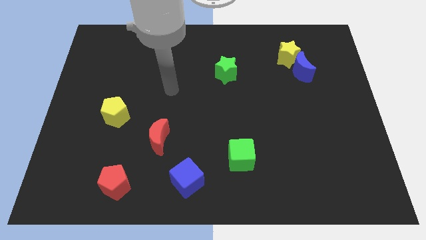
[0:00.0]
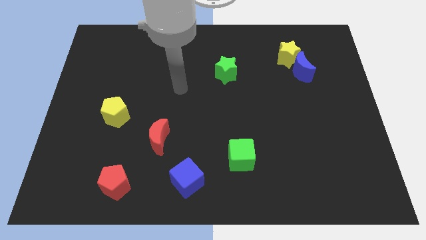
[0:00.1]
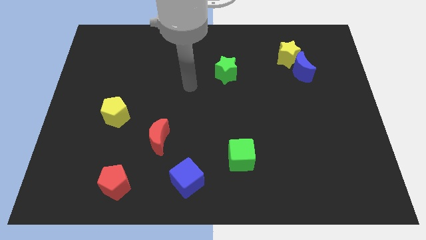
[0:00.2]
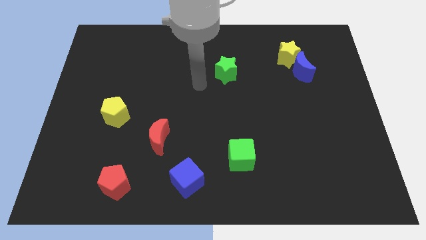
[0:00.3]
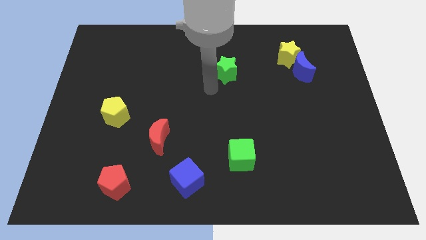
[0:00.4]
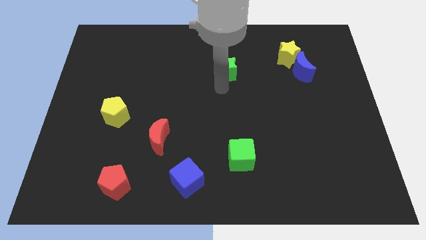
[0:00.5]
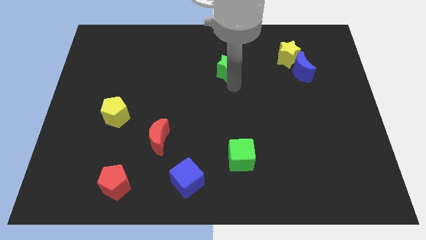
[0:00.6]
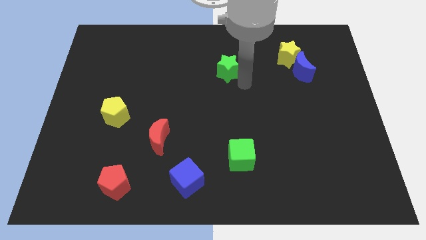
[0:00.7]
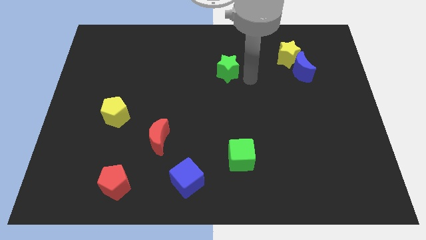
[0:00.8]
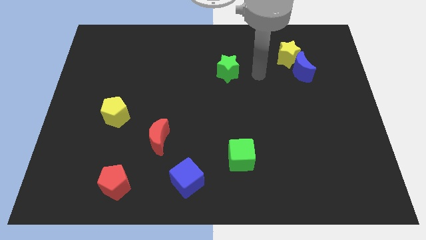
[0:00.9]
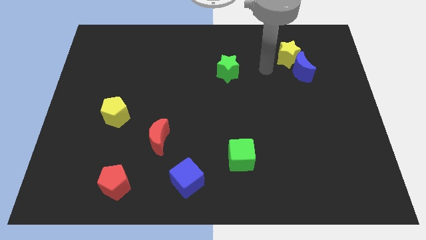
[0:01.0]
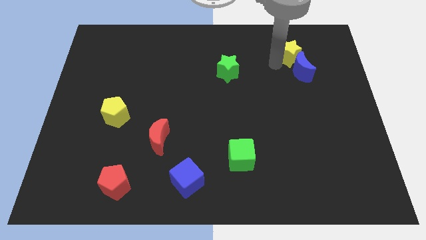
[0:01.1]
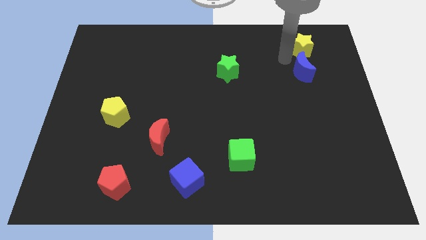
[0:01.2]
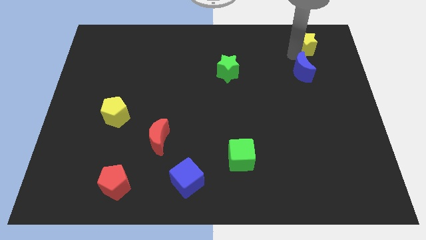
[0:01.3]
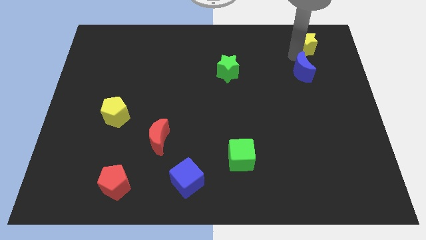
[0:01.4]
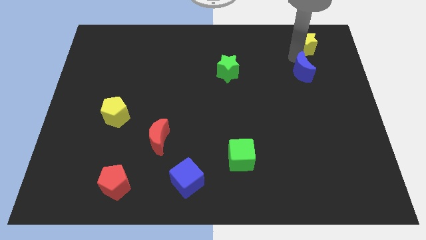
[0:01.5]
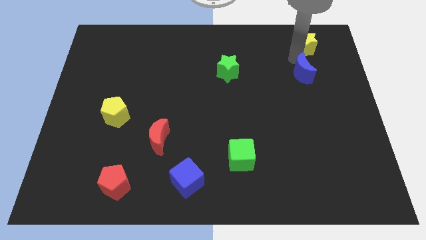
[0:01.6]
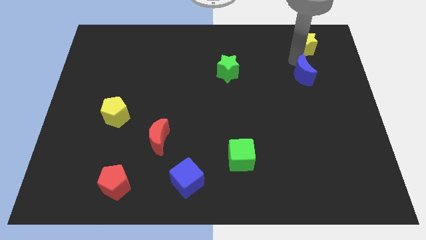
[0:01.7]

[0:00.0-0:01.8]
separate the blue moon from the yellow star

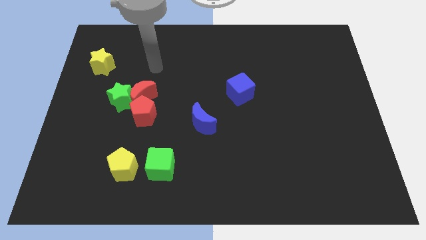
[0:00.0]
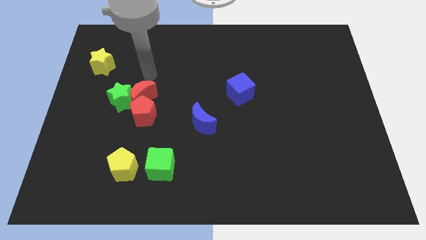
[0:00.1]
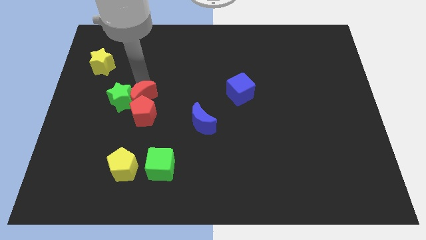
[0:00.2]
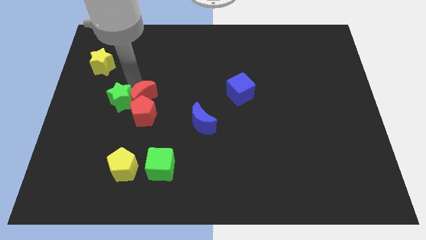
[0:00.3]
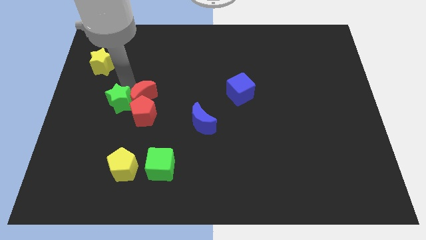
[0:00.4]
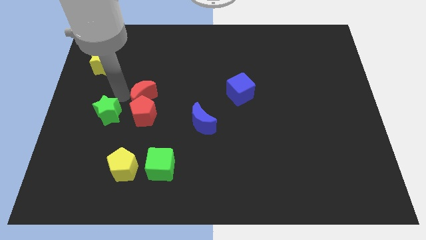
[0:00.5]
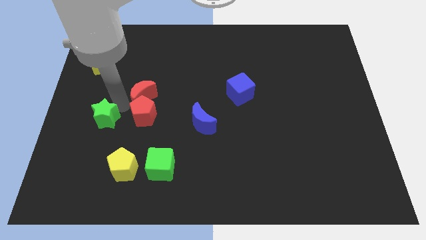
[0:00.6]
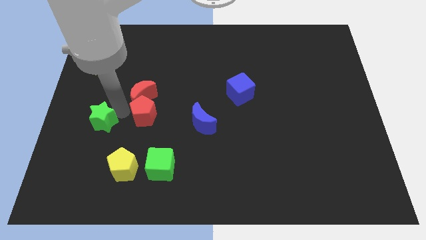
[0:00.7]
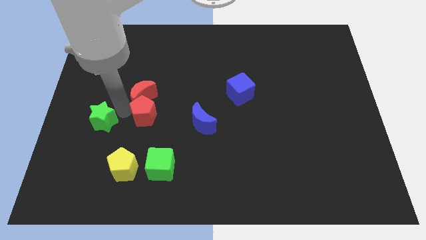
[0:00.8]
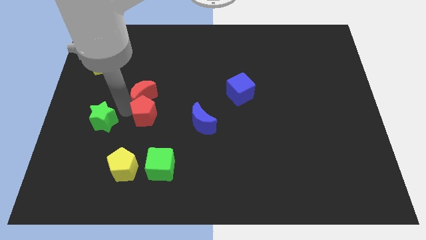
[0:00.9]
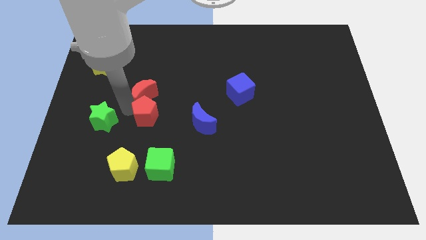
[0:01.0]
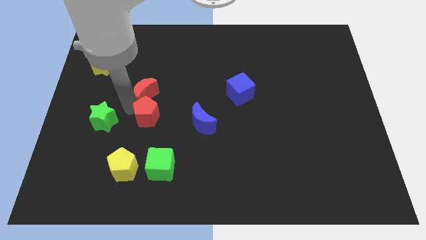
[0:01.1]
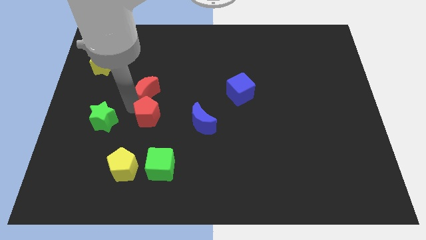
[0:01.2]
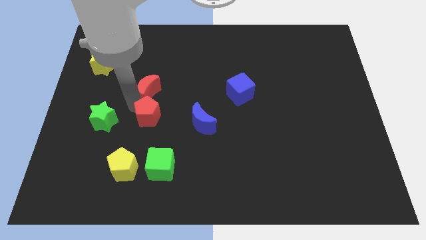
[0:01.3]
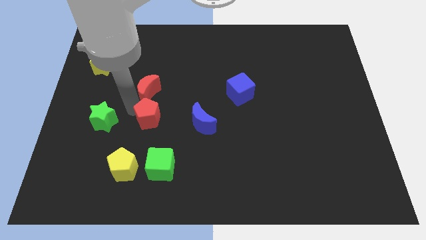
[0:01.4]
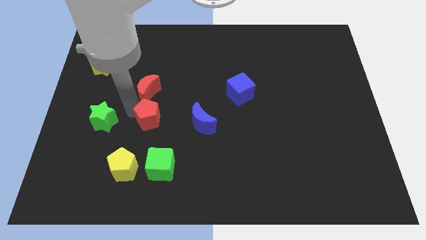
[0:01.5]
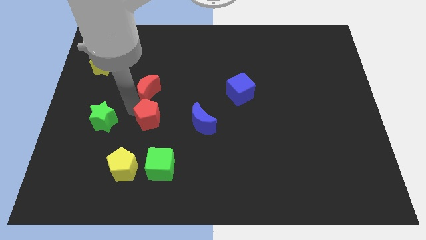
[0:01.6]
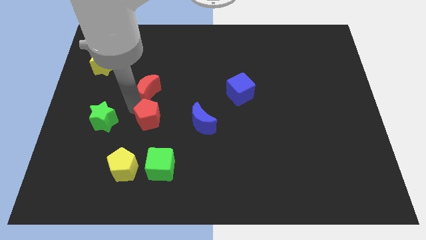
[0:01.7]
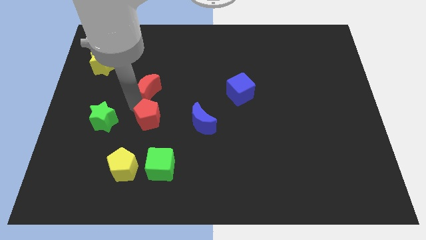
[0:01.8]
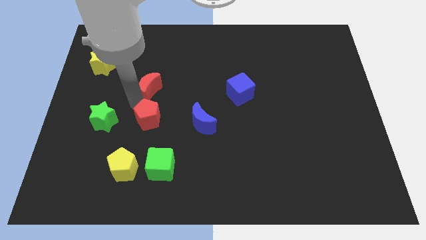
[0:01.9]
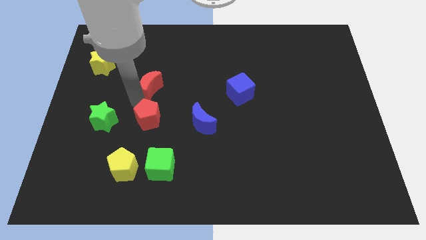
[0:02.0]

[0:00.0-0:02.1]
move the red moon away from the green star and red pentagon

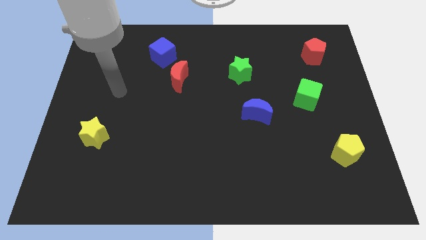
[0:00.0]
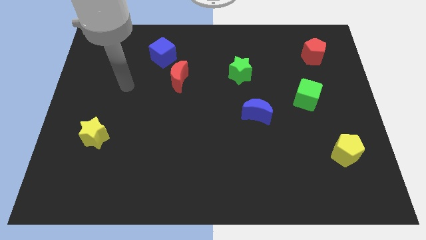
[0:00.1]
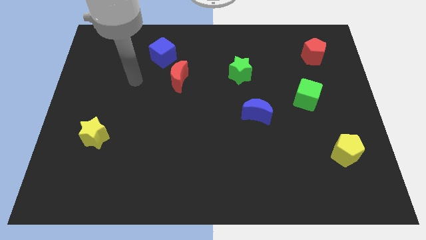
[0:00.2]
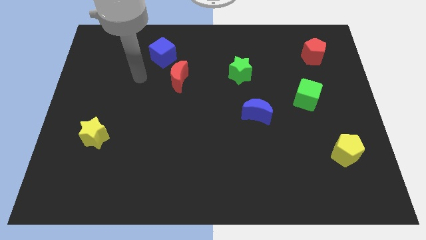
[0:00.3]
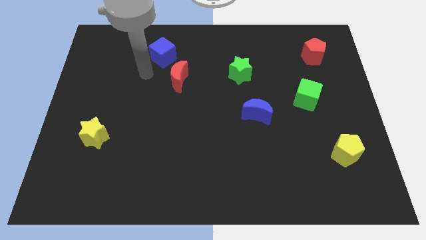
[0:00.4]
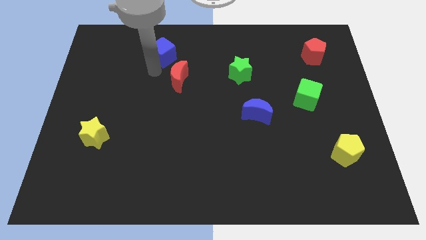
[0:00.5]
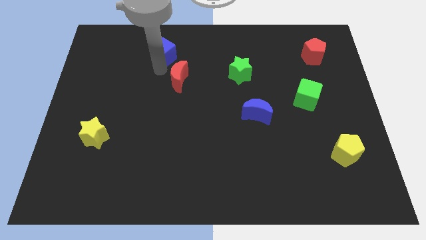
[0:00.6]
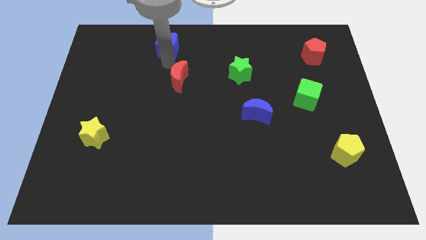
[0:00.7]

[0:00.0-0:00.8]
move the red moon away from the blue cube

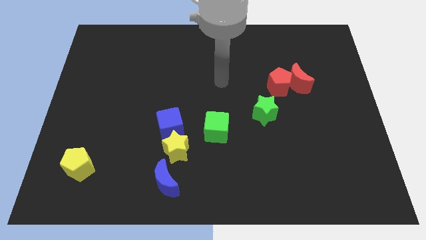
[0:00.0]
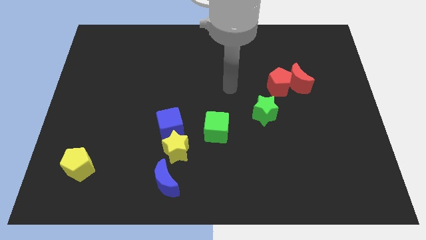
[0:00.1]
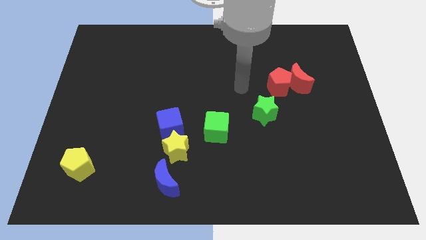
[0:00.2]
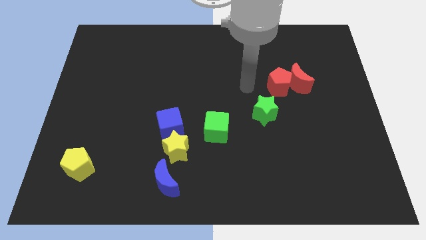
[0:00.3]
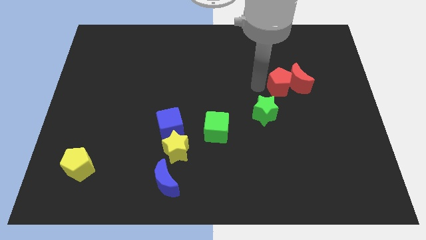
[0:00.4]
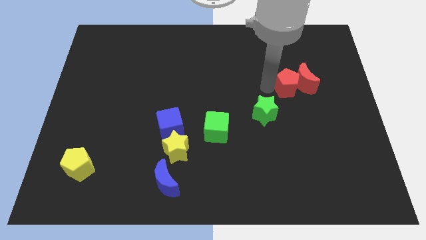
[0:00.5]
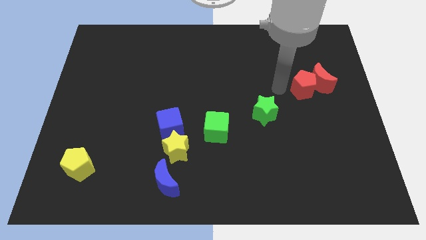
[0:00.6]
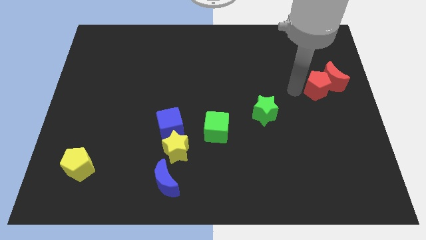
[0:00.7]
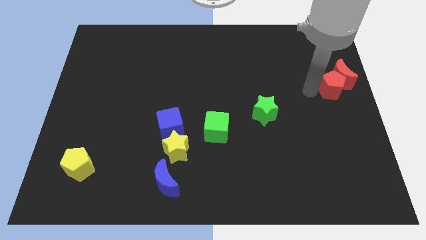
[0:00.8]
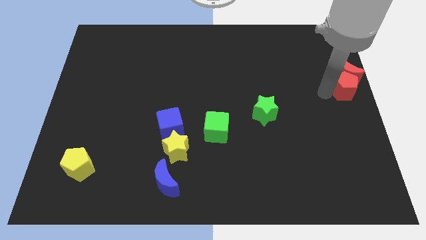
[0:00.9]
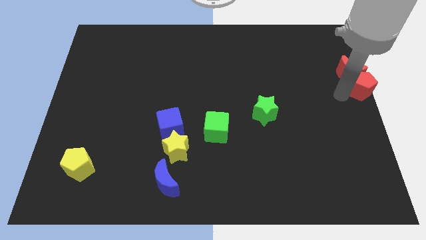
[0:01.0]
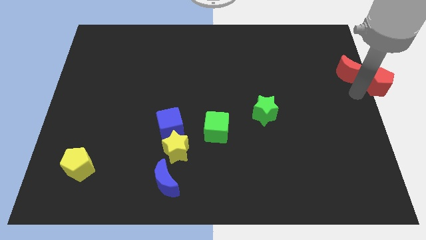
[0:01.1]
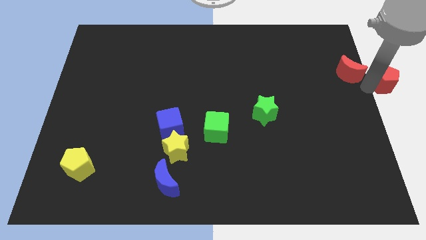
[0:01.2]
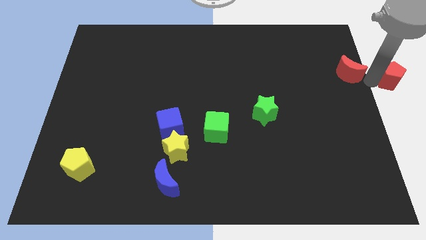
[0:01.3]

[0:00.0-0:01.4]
move the red moon away from the red pentagon

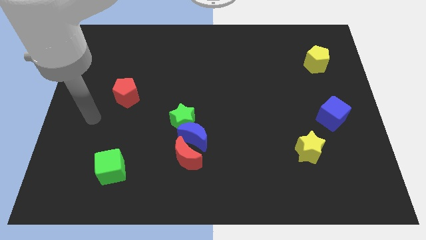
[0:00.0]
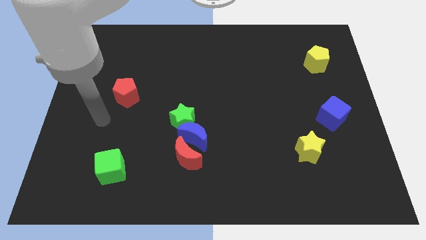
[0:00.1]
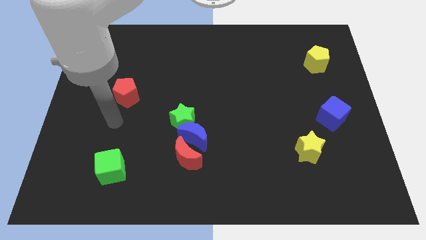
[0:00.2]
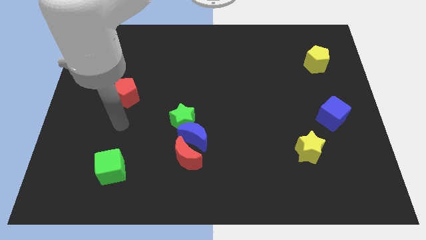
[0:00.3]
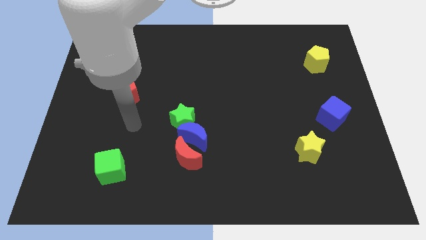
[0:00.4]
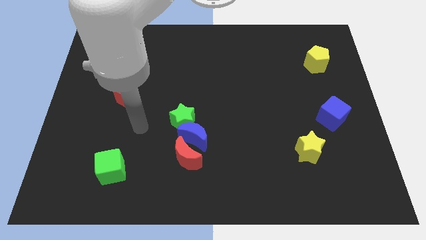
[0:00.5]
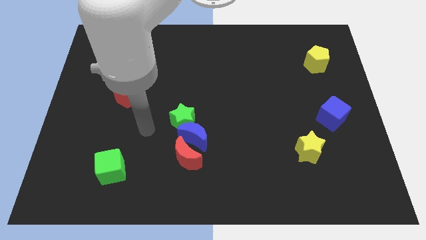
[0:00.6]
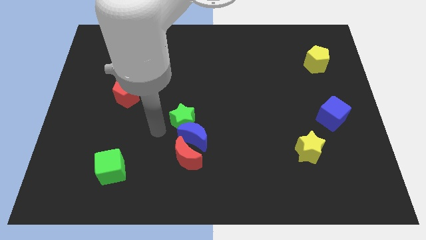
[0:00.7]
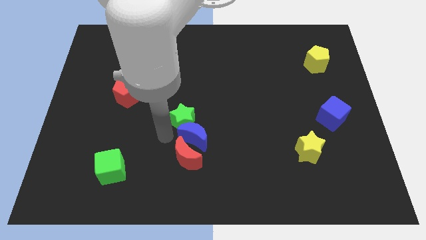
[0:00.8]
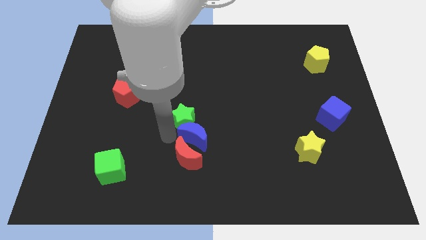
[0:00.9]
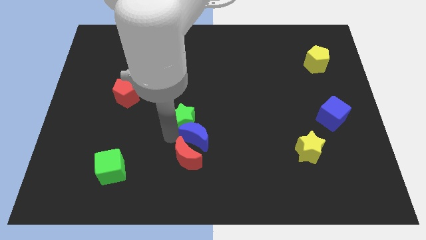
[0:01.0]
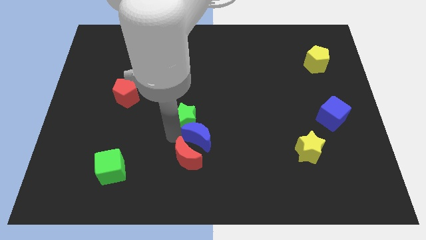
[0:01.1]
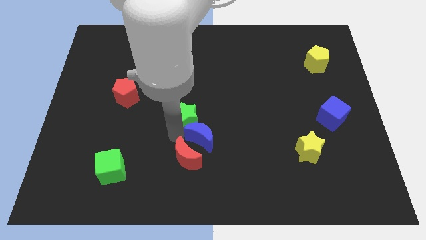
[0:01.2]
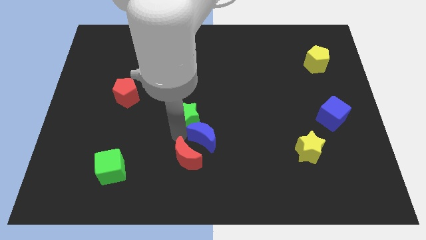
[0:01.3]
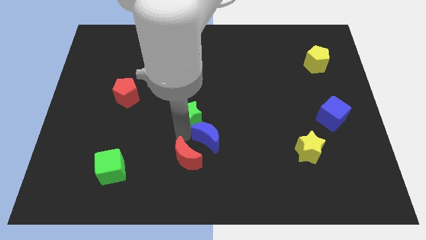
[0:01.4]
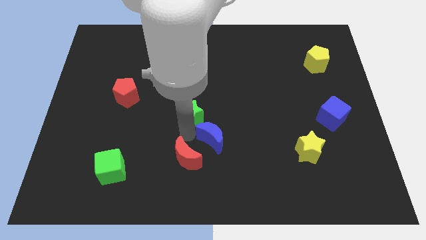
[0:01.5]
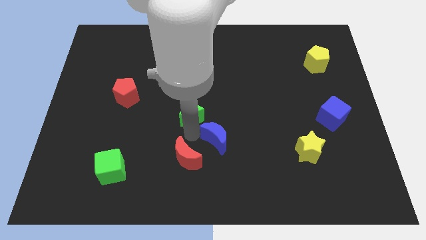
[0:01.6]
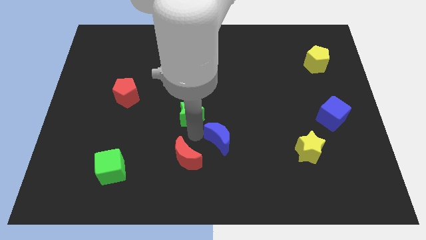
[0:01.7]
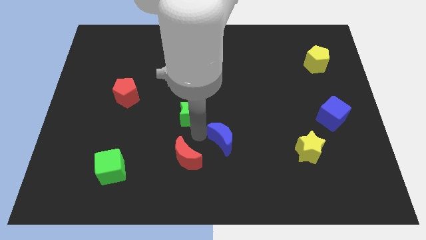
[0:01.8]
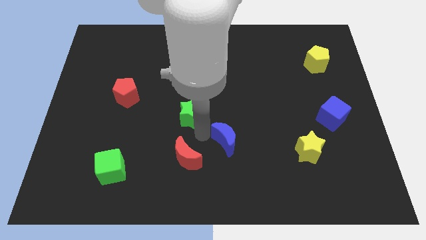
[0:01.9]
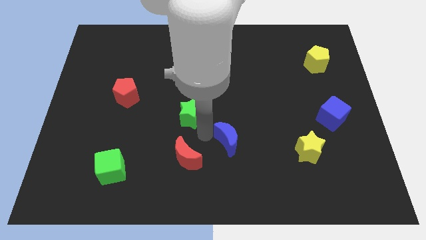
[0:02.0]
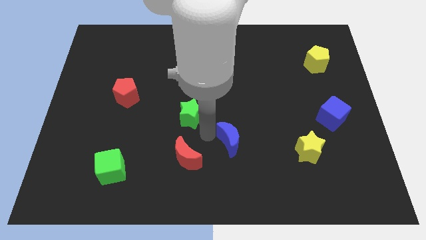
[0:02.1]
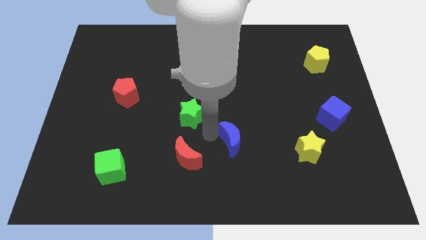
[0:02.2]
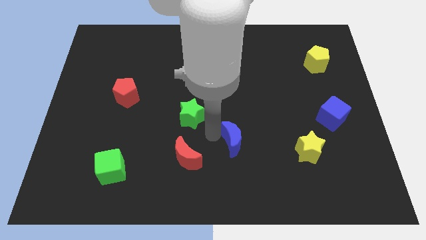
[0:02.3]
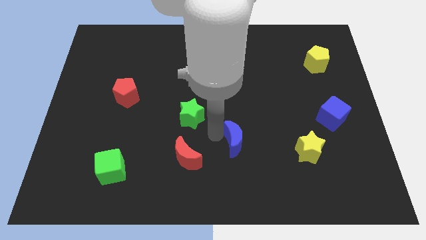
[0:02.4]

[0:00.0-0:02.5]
pull the blue moon apart from the green star and red moon

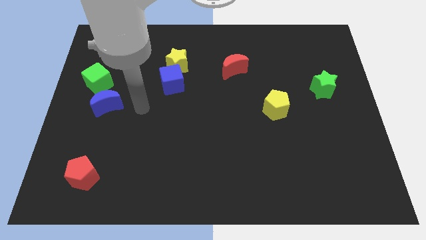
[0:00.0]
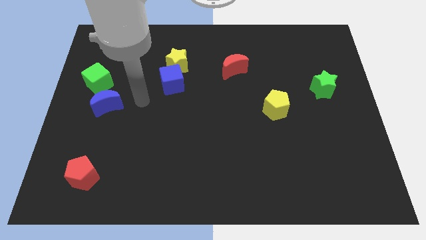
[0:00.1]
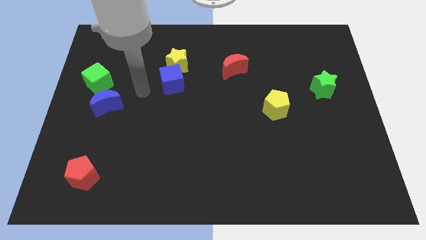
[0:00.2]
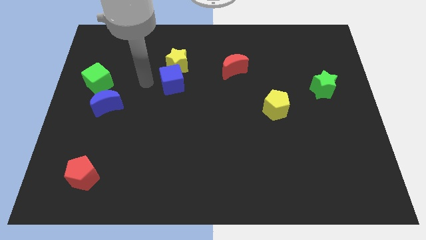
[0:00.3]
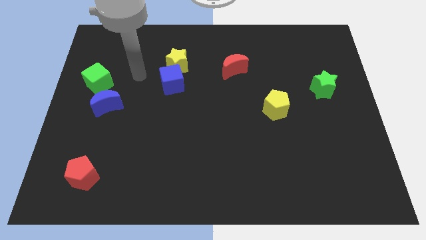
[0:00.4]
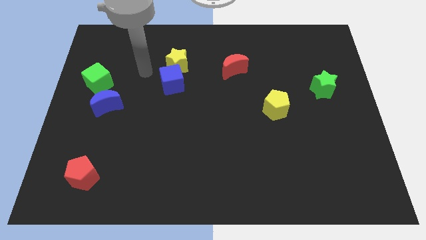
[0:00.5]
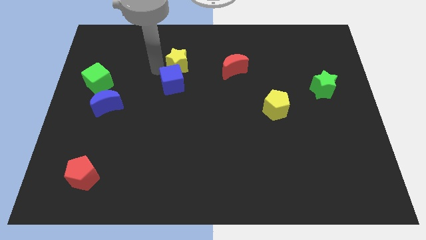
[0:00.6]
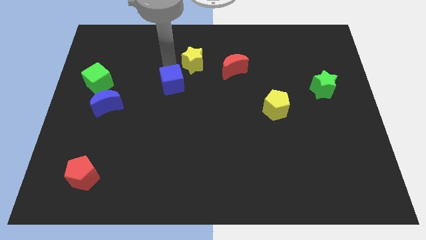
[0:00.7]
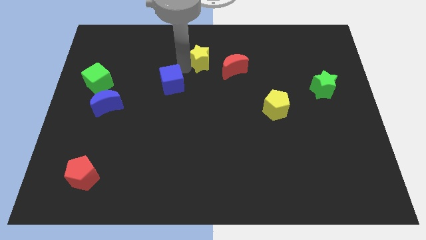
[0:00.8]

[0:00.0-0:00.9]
pull the blue cube apart from the yellow star
